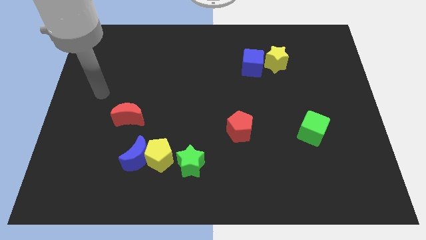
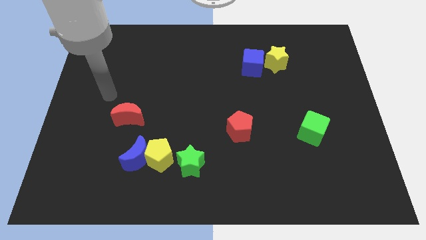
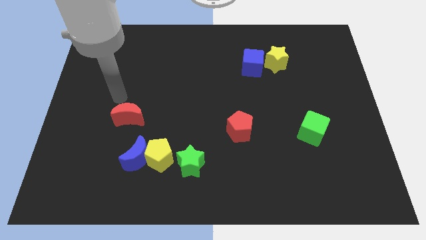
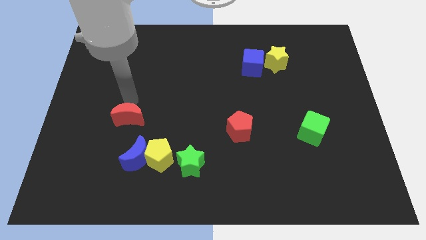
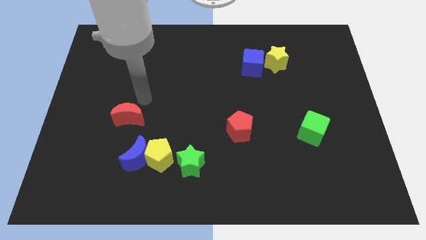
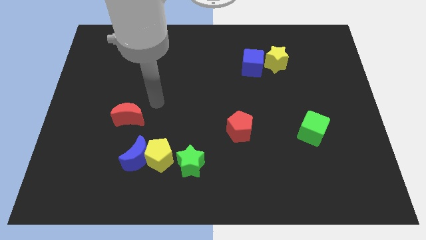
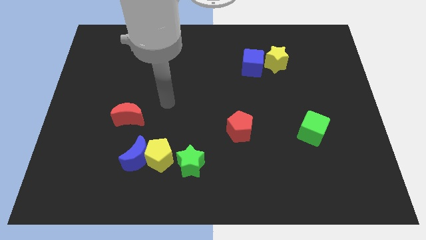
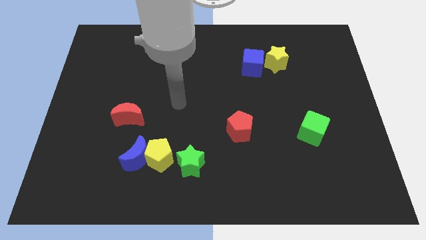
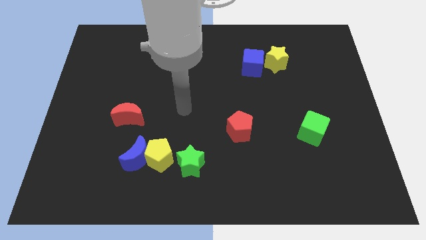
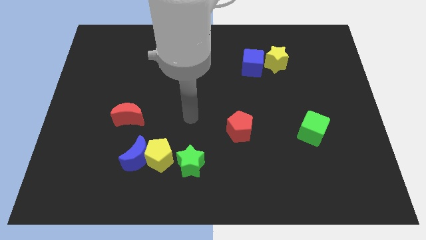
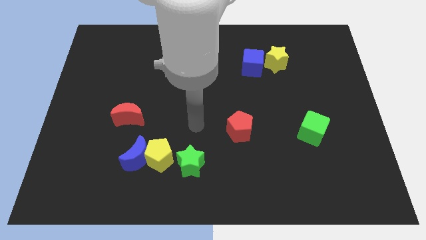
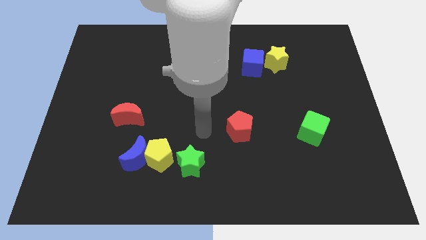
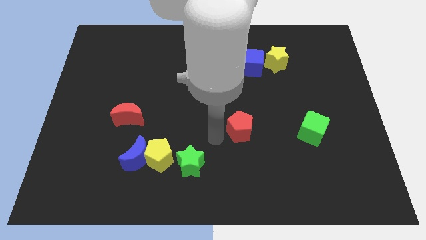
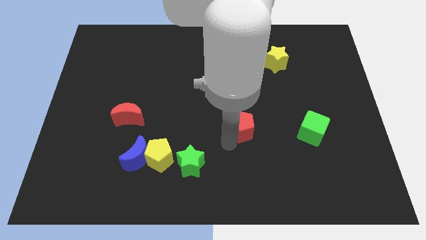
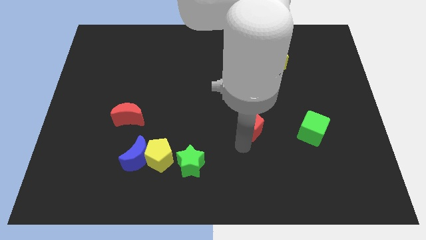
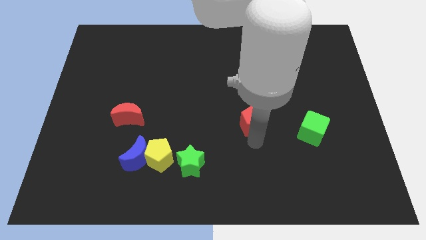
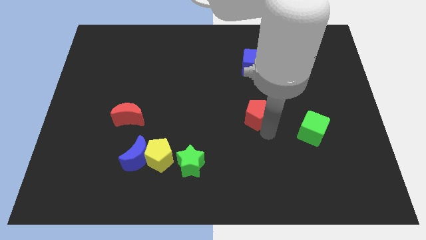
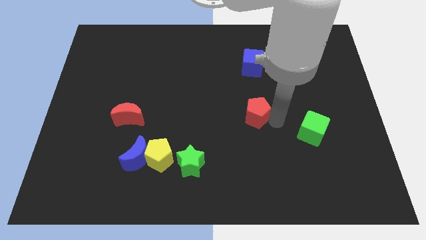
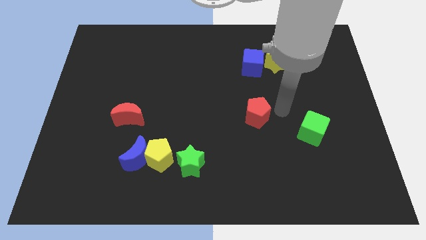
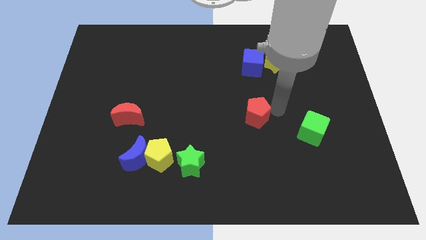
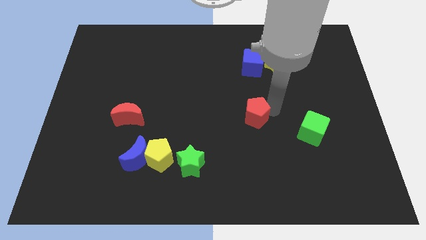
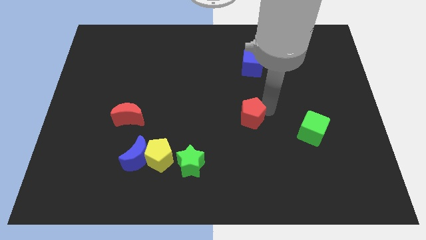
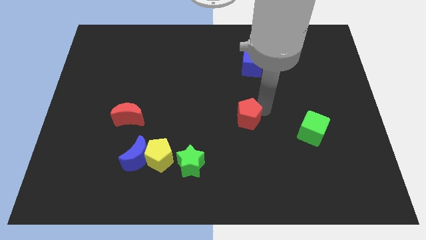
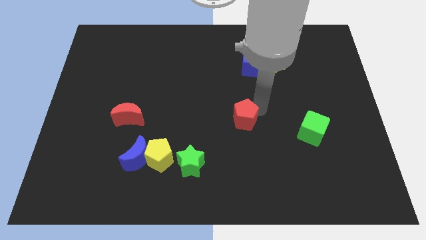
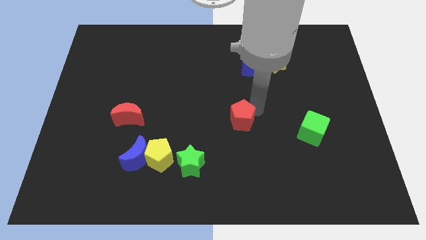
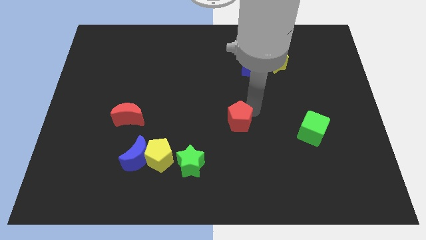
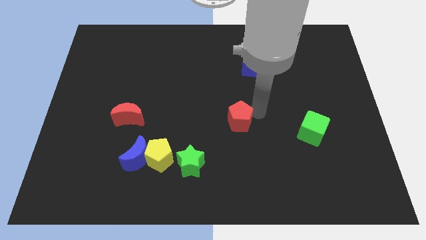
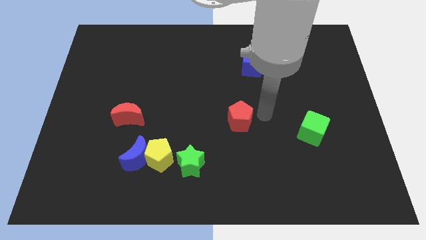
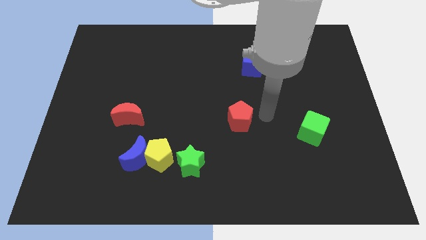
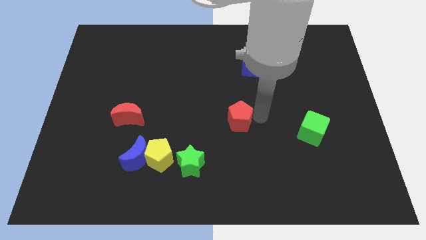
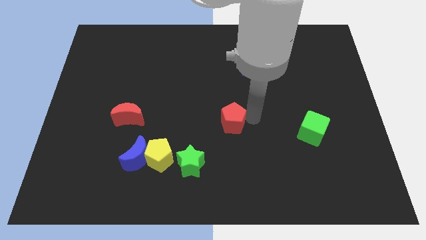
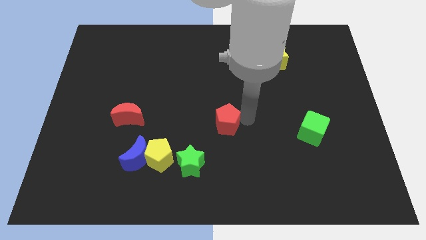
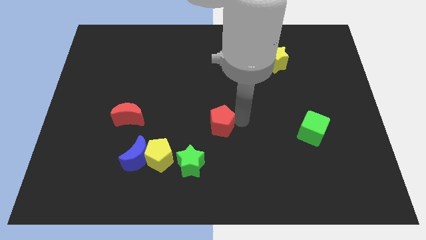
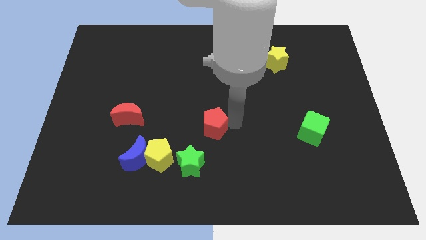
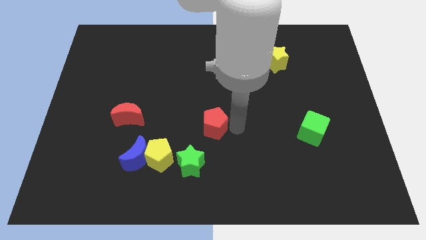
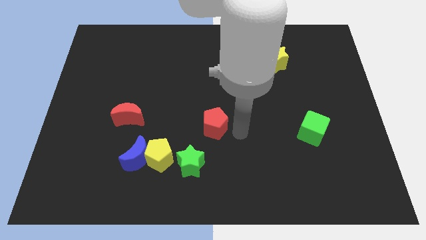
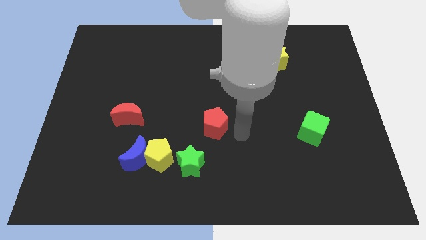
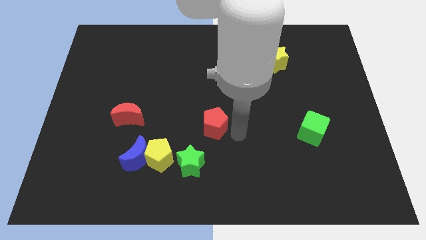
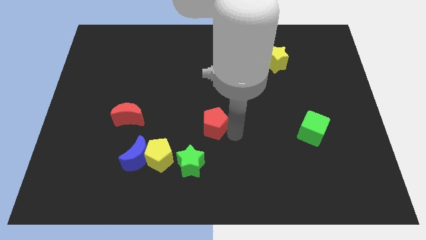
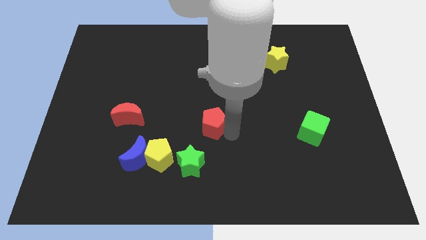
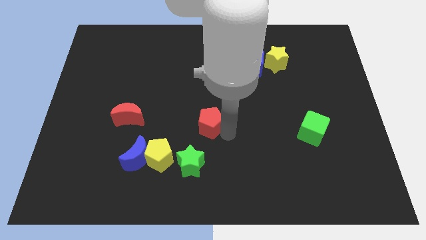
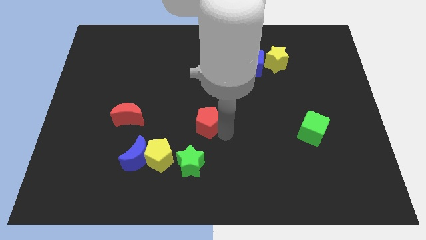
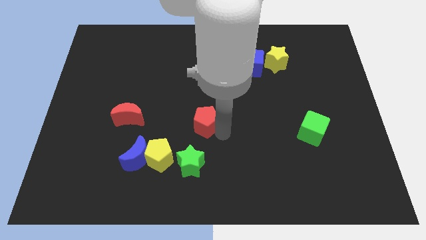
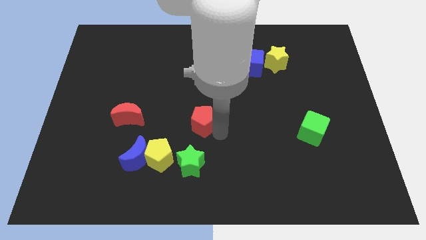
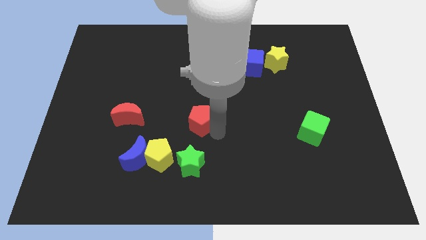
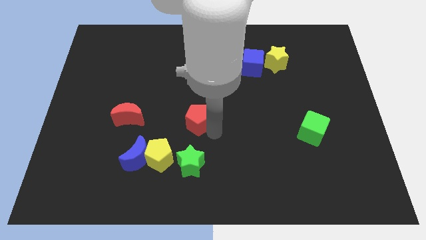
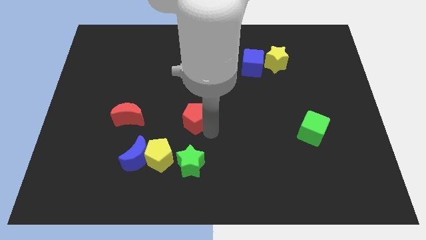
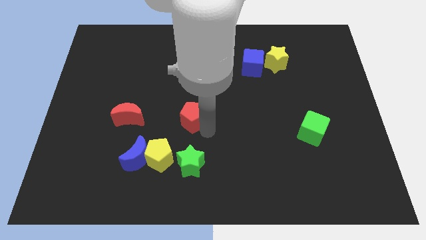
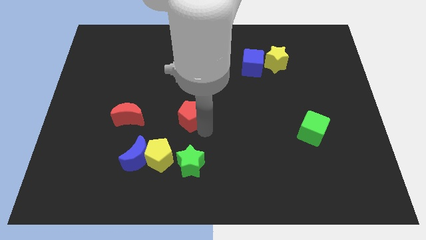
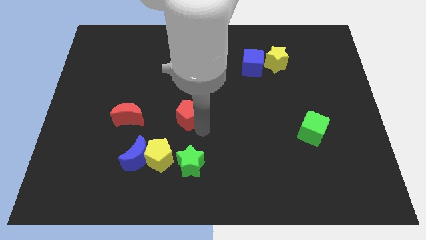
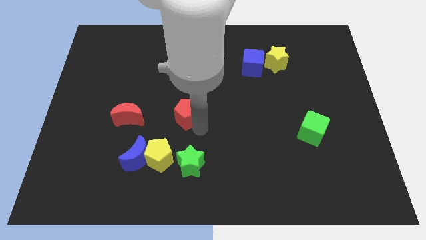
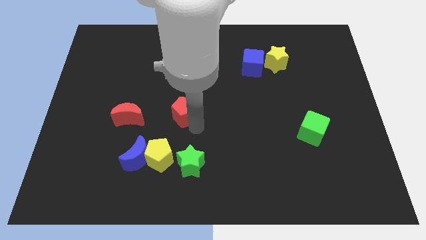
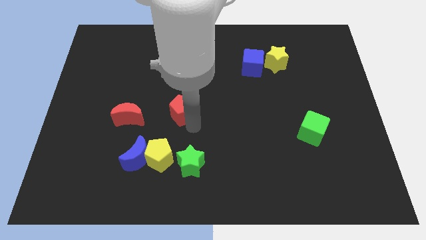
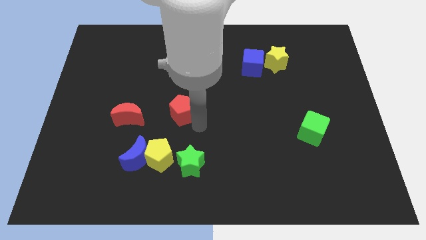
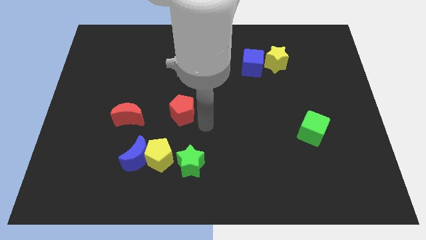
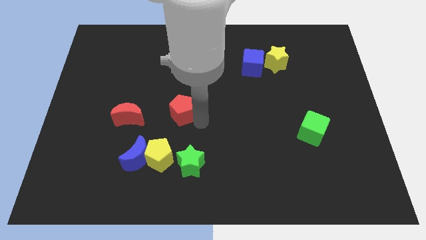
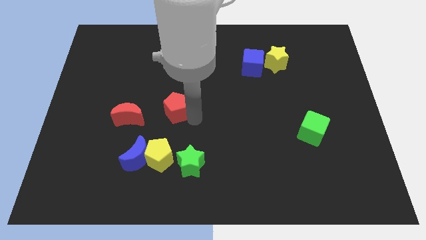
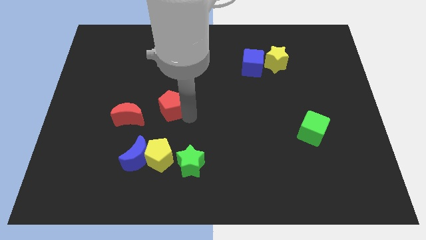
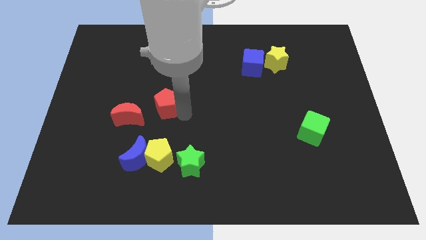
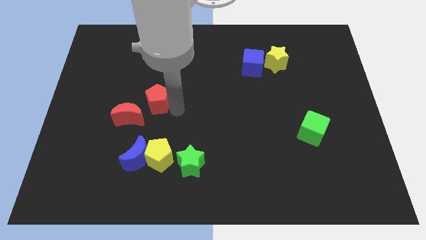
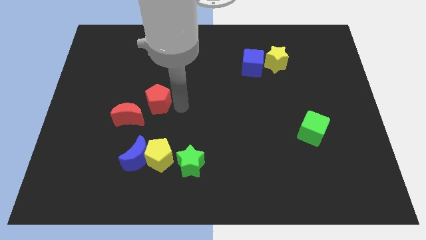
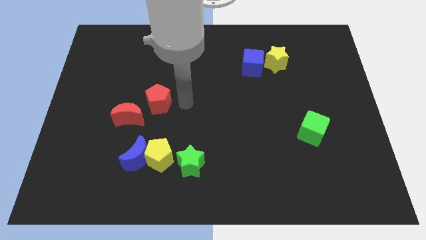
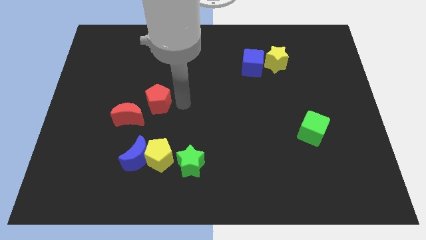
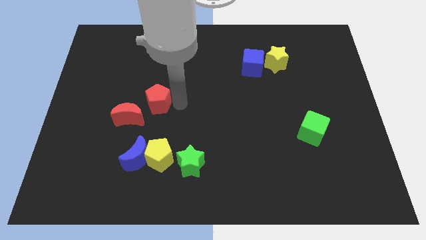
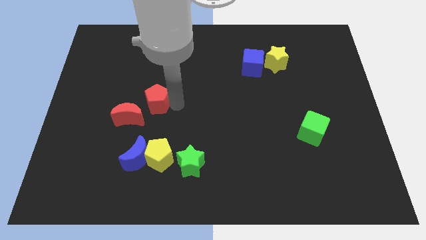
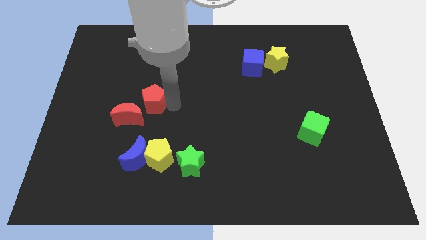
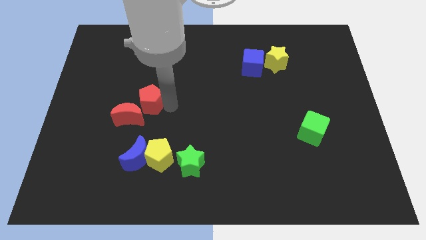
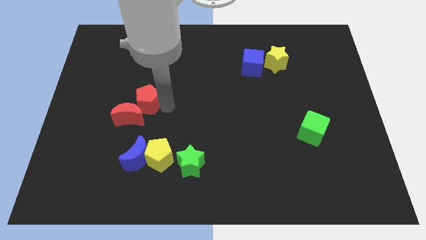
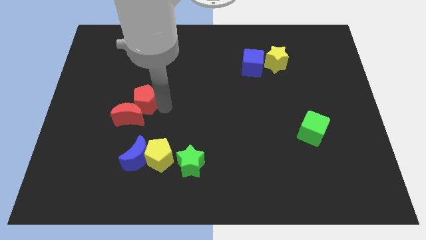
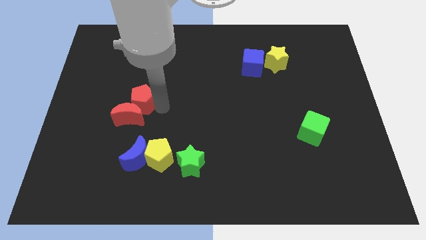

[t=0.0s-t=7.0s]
move the red pentagon left

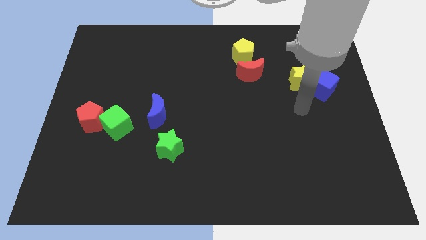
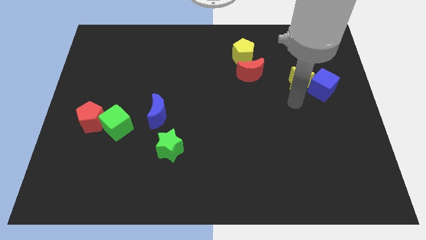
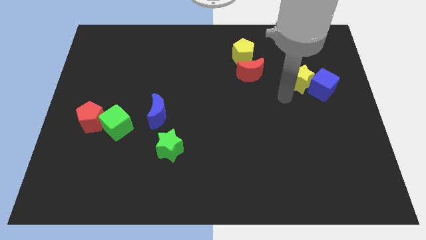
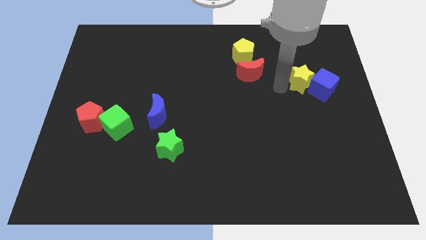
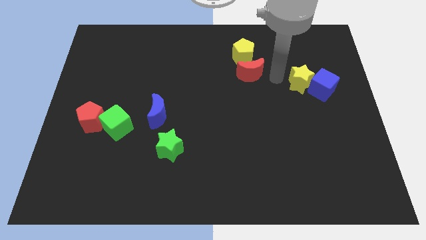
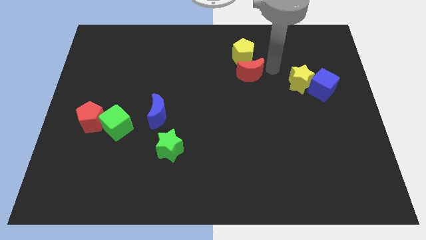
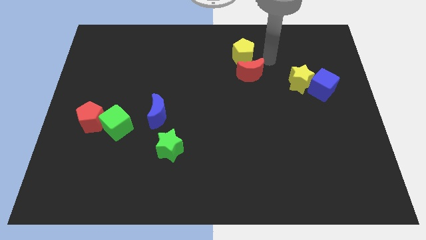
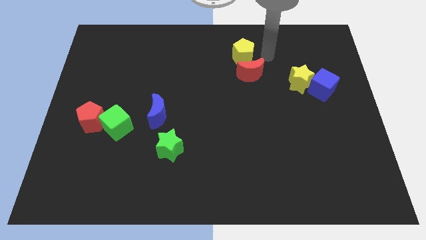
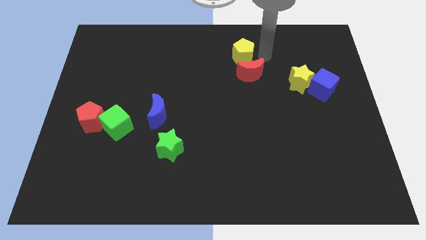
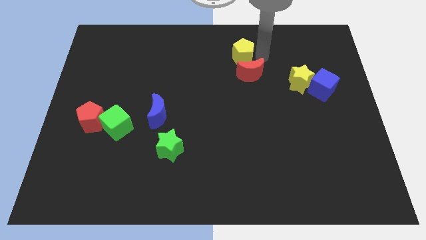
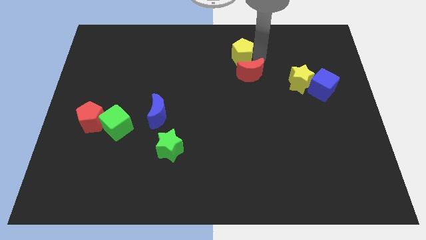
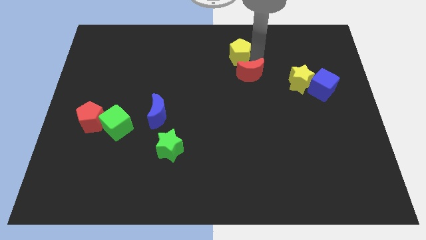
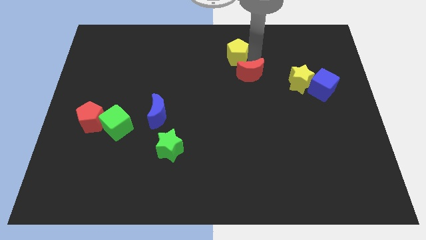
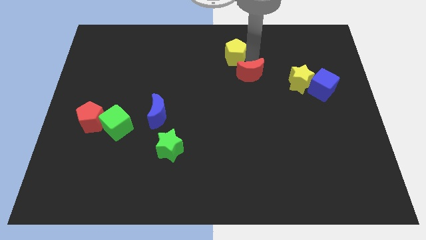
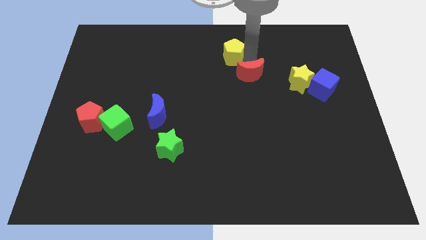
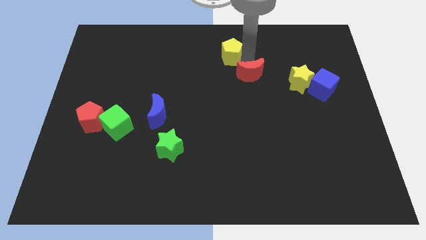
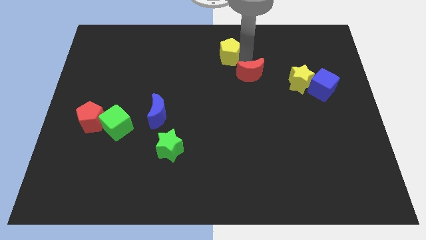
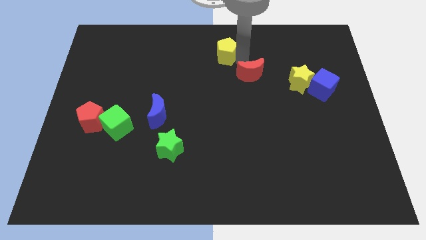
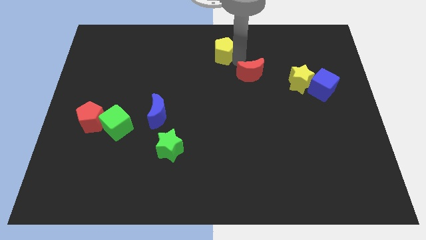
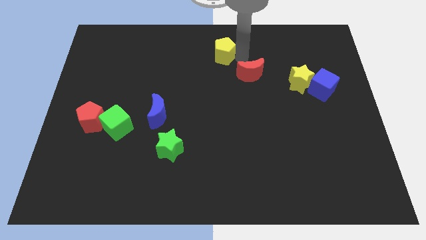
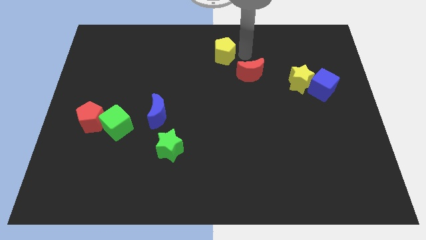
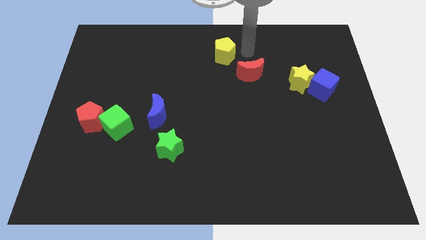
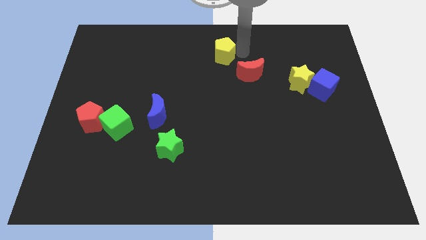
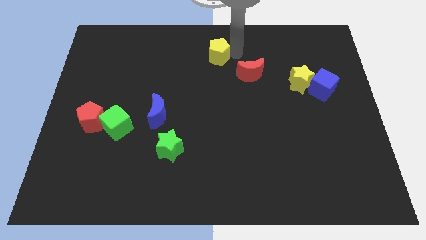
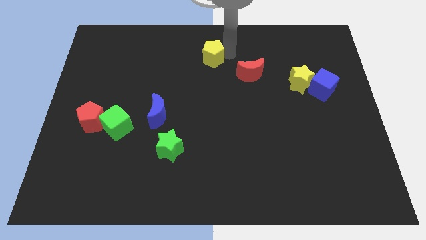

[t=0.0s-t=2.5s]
slide the yellow pentagon left slightly
